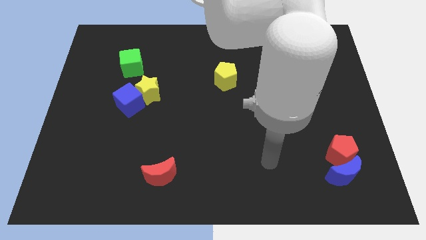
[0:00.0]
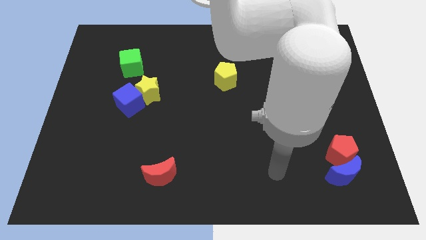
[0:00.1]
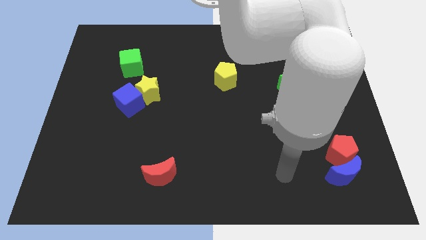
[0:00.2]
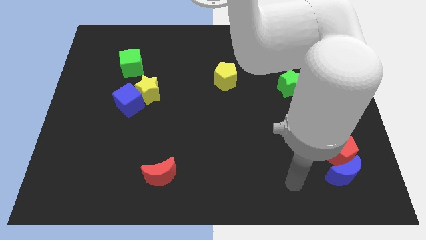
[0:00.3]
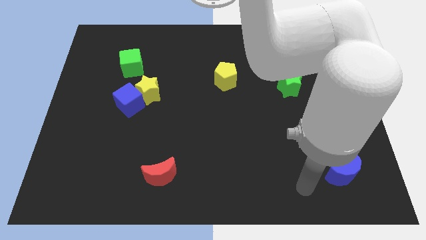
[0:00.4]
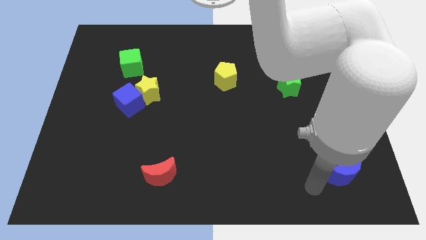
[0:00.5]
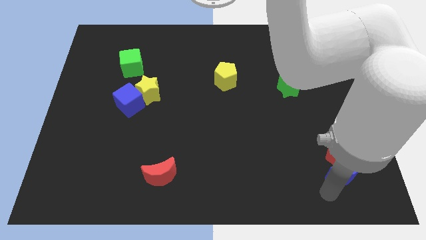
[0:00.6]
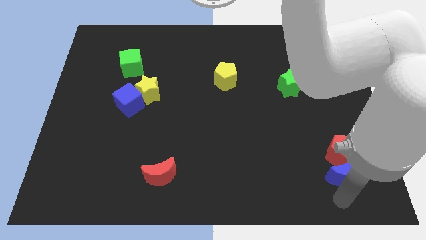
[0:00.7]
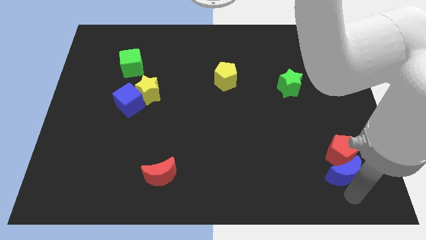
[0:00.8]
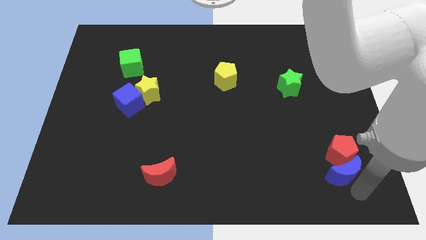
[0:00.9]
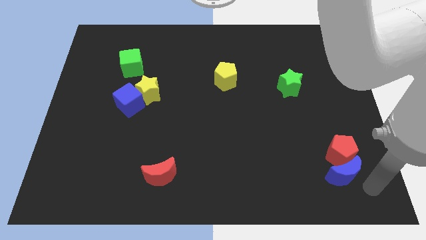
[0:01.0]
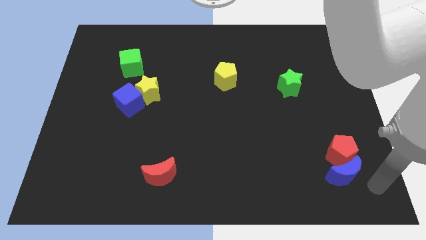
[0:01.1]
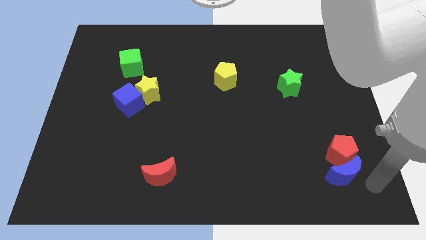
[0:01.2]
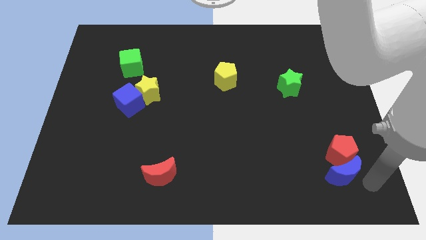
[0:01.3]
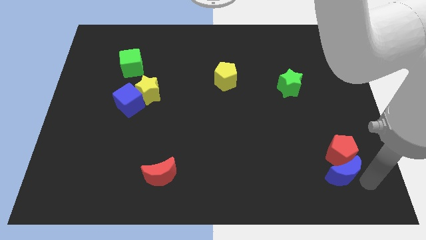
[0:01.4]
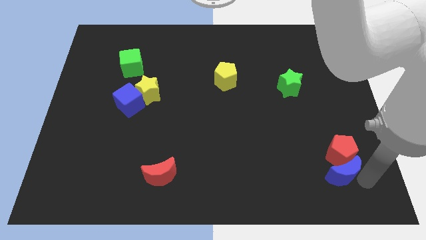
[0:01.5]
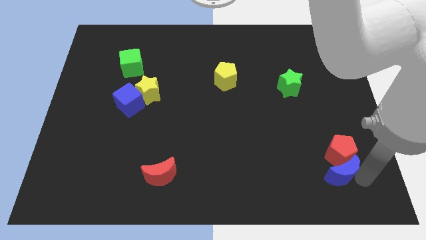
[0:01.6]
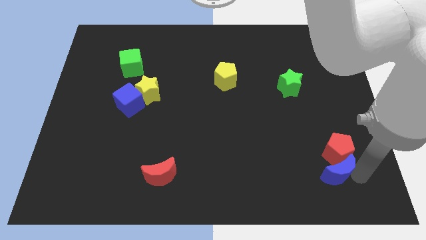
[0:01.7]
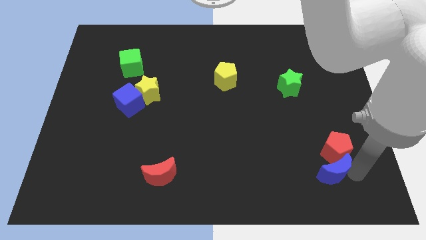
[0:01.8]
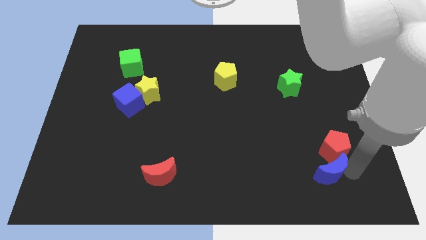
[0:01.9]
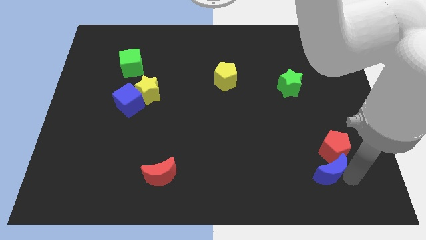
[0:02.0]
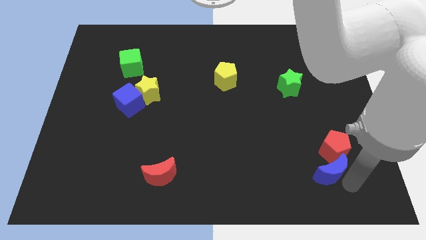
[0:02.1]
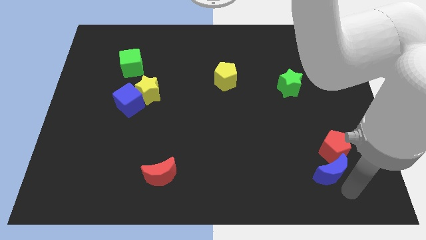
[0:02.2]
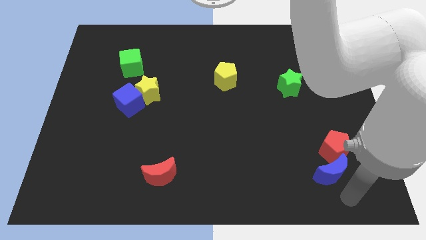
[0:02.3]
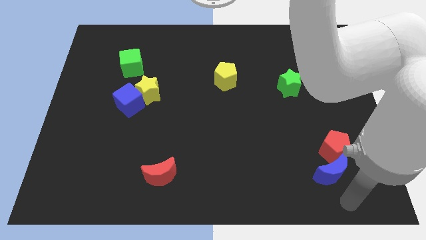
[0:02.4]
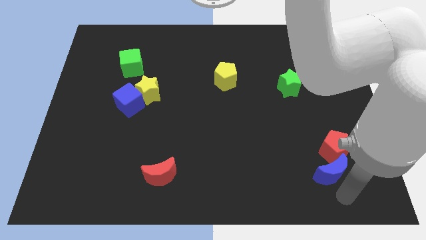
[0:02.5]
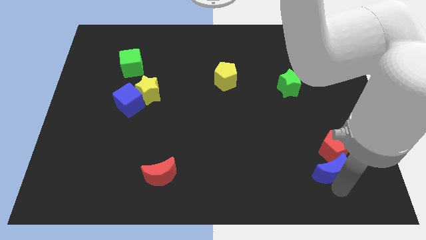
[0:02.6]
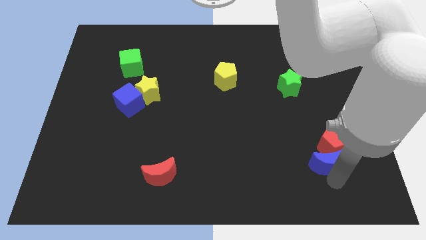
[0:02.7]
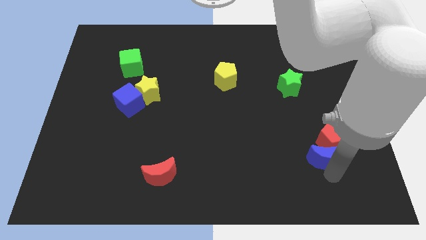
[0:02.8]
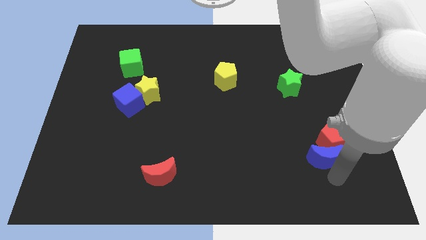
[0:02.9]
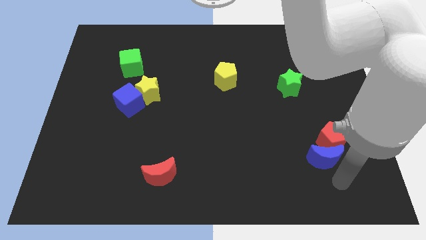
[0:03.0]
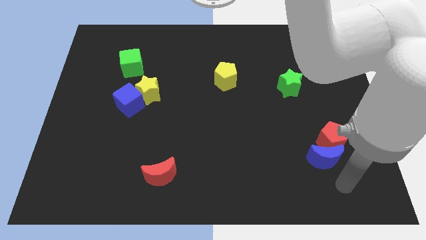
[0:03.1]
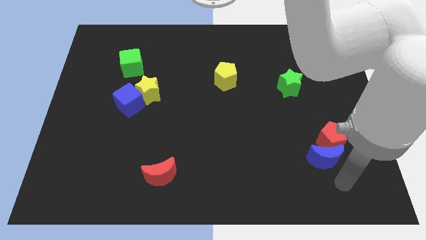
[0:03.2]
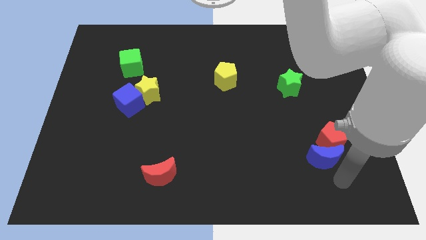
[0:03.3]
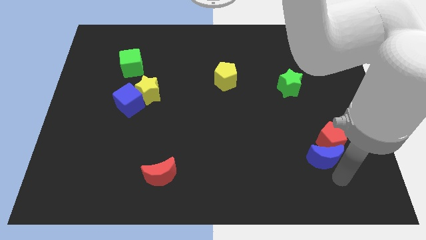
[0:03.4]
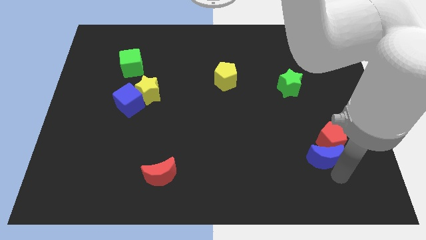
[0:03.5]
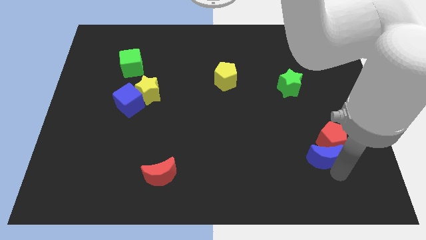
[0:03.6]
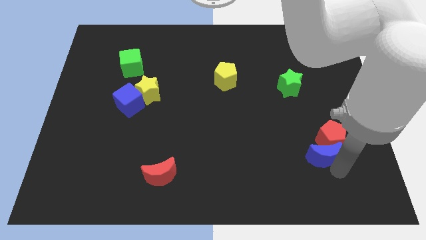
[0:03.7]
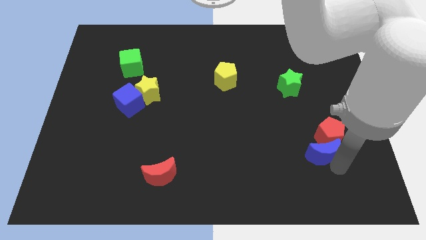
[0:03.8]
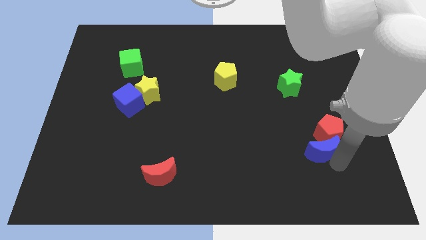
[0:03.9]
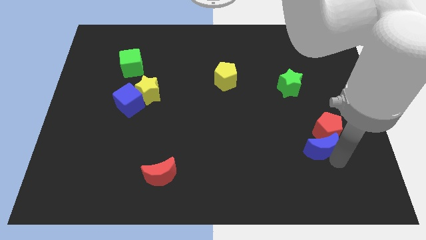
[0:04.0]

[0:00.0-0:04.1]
slightly push the blue moon up and then left

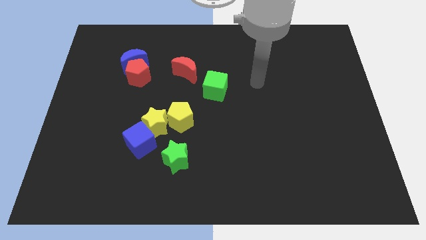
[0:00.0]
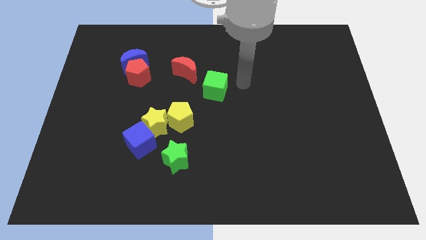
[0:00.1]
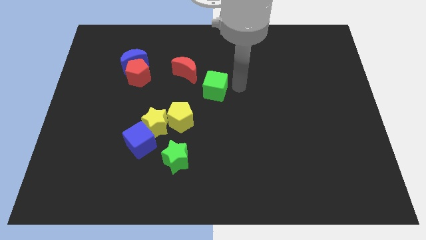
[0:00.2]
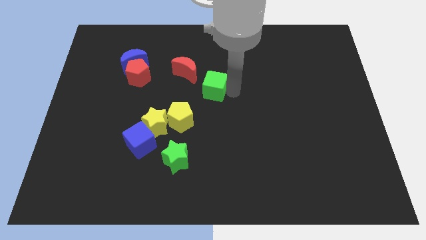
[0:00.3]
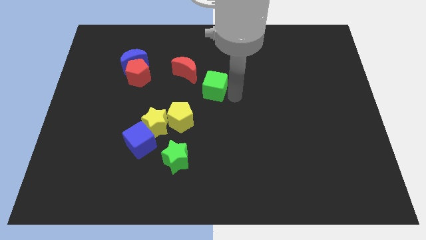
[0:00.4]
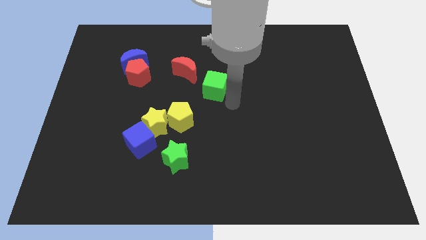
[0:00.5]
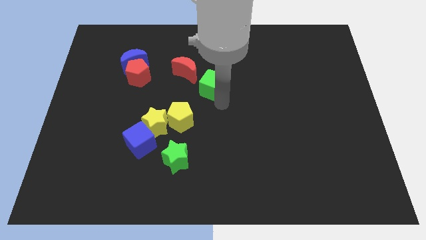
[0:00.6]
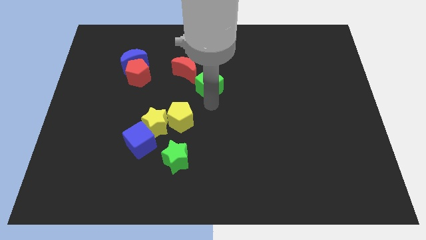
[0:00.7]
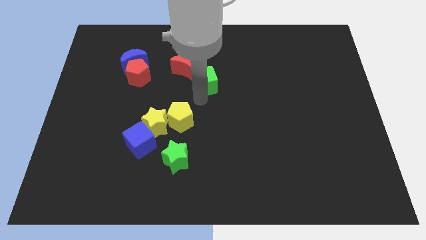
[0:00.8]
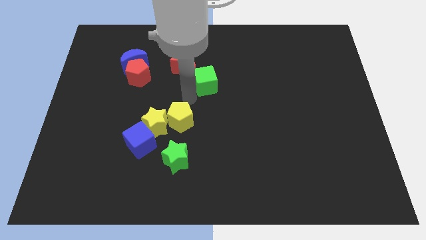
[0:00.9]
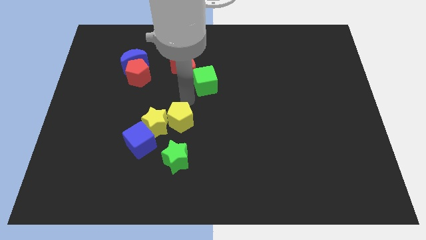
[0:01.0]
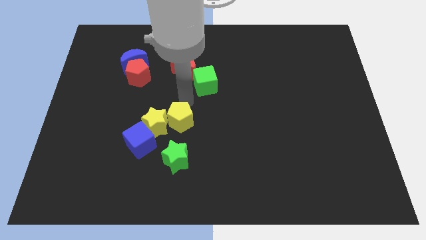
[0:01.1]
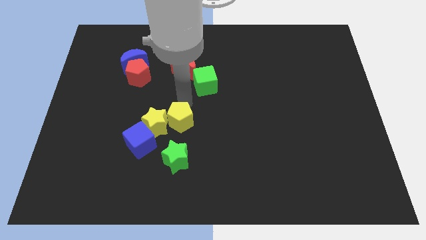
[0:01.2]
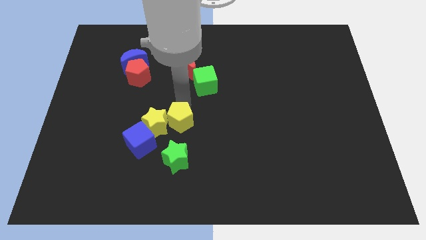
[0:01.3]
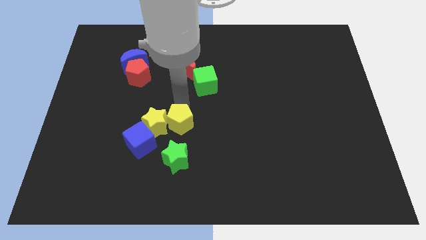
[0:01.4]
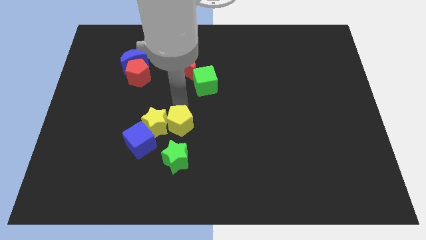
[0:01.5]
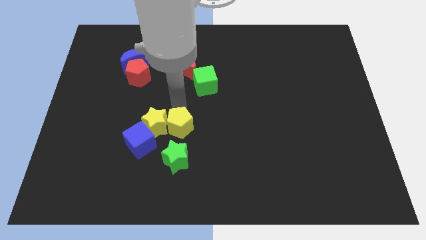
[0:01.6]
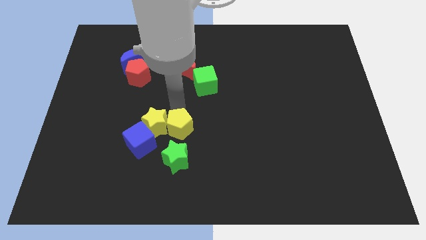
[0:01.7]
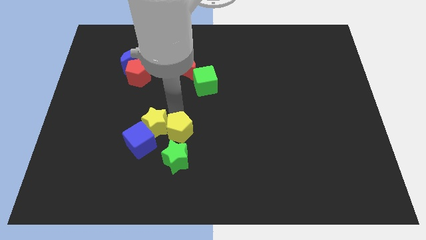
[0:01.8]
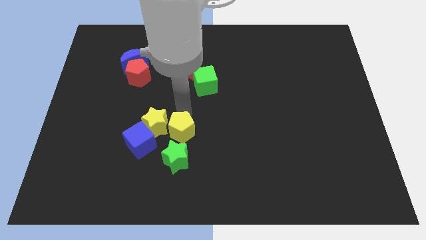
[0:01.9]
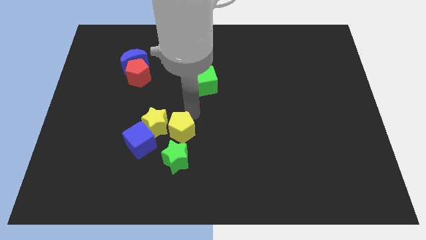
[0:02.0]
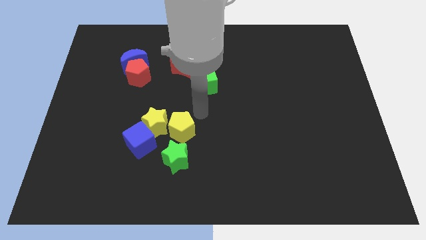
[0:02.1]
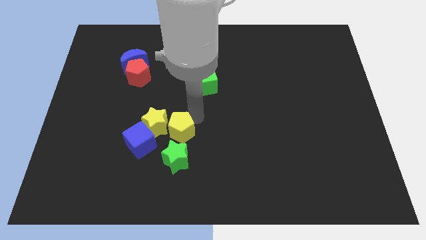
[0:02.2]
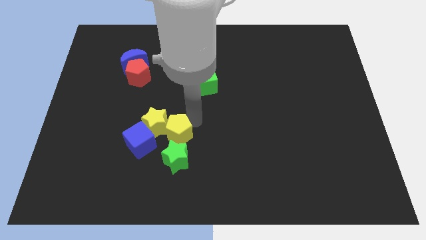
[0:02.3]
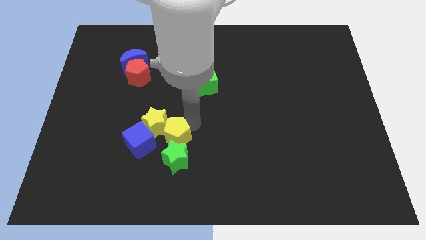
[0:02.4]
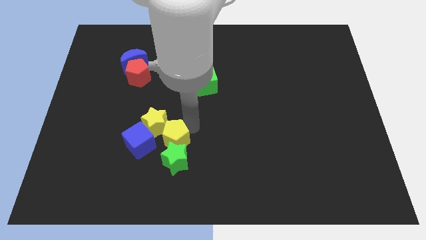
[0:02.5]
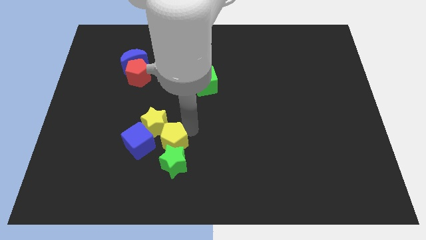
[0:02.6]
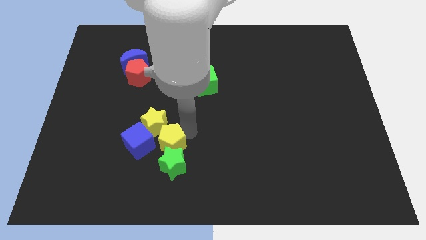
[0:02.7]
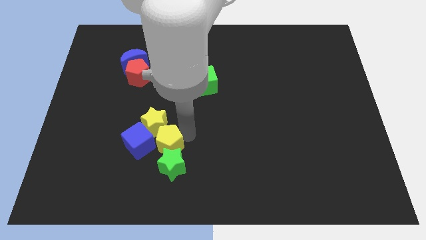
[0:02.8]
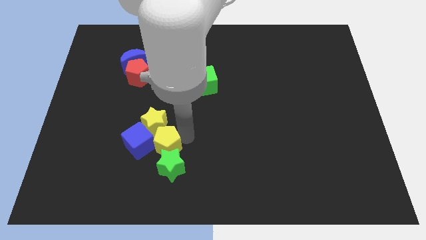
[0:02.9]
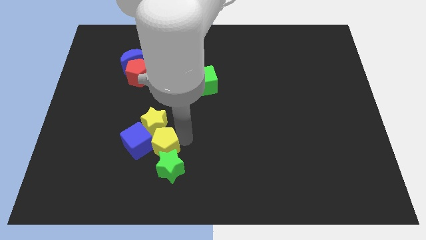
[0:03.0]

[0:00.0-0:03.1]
slightly slide the yellow pentagon down and then to the left

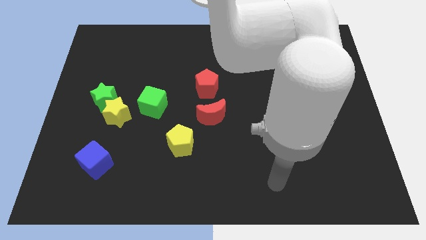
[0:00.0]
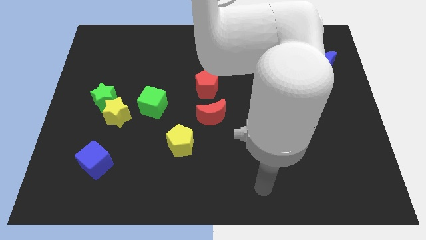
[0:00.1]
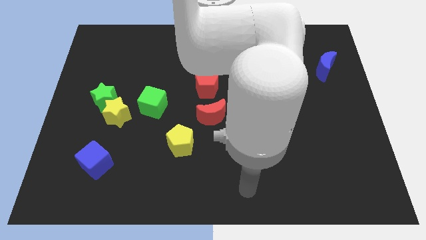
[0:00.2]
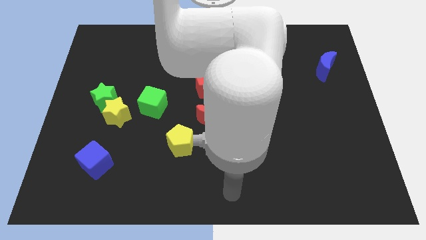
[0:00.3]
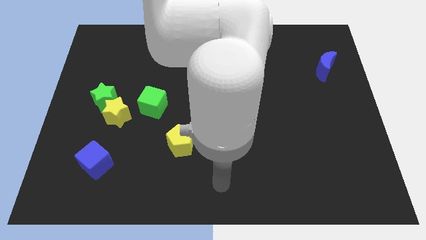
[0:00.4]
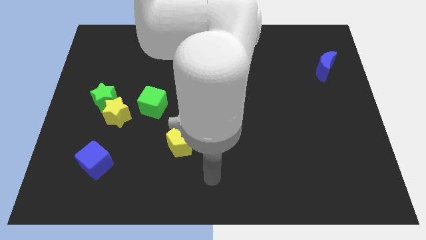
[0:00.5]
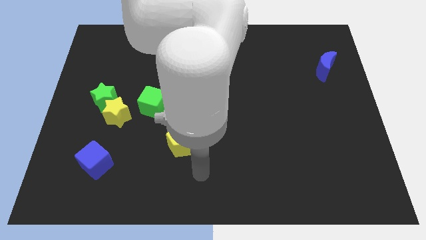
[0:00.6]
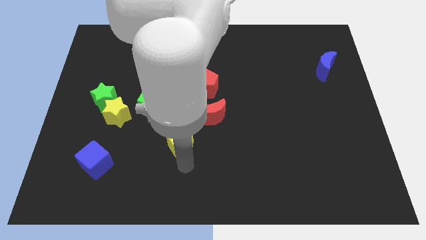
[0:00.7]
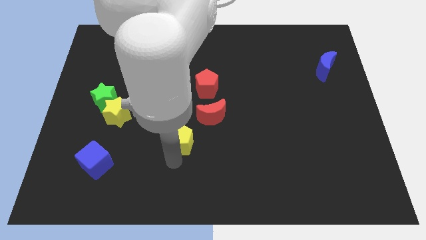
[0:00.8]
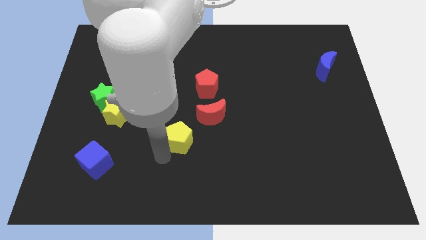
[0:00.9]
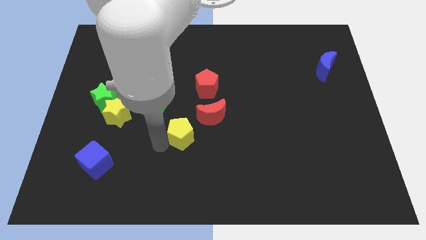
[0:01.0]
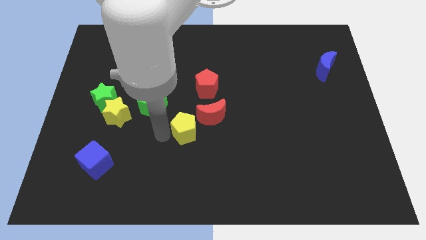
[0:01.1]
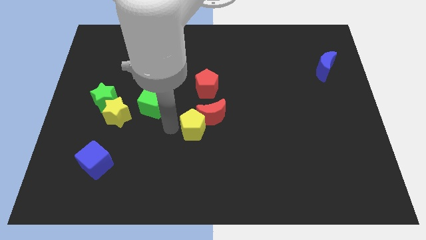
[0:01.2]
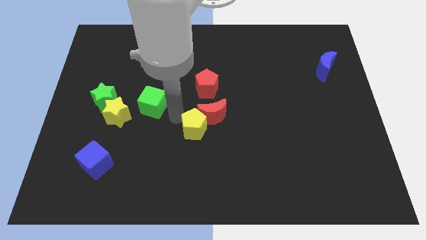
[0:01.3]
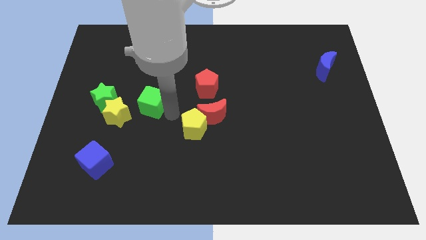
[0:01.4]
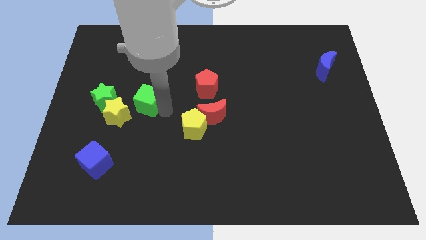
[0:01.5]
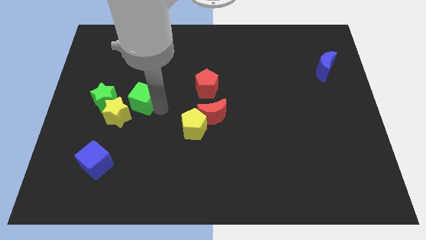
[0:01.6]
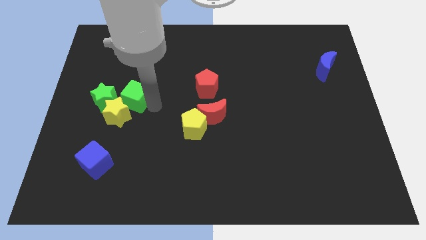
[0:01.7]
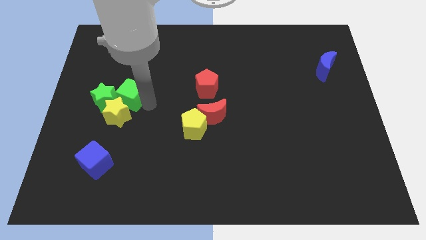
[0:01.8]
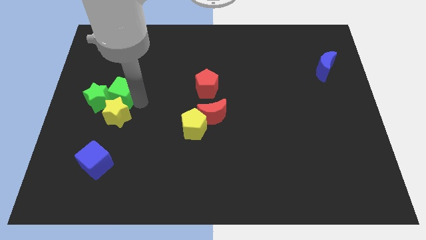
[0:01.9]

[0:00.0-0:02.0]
slide the green cube slightly up and to the left
